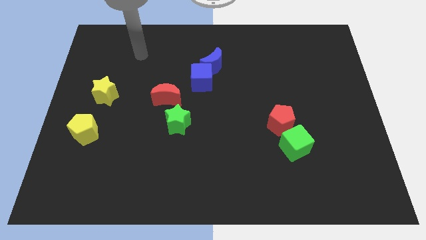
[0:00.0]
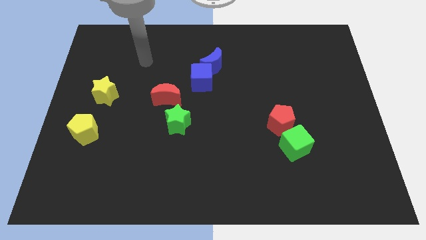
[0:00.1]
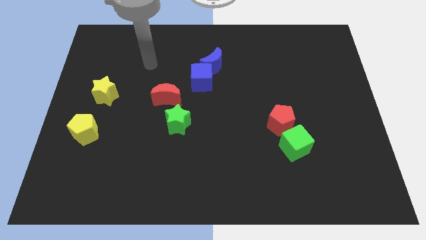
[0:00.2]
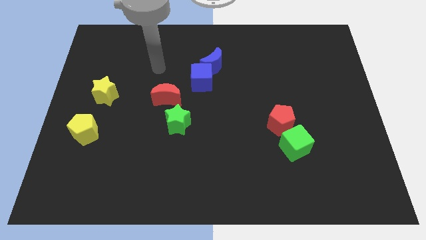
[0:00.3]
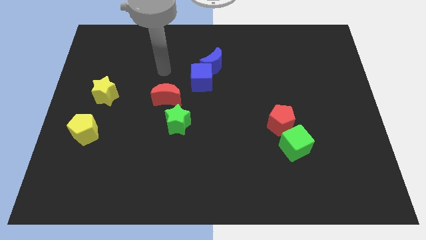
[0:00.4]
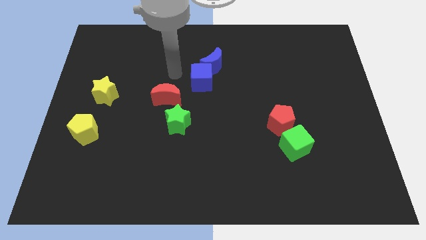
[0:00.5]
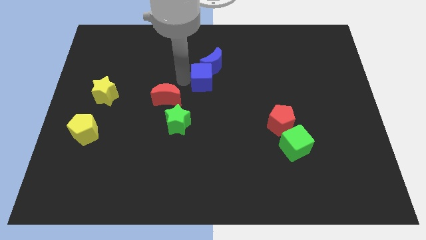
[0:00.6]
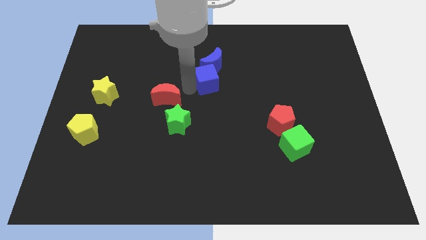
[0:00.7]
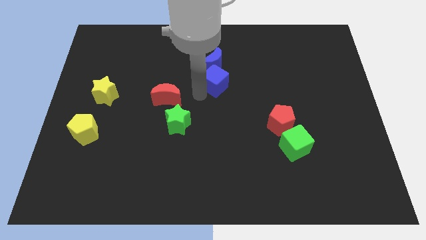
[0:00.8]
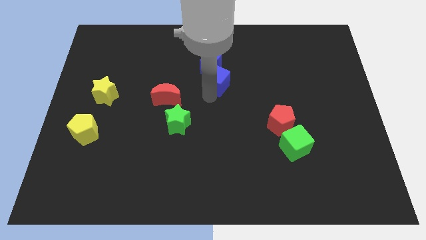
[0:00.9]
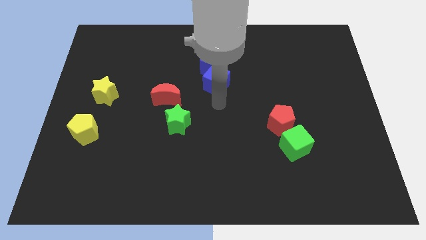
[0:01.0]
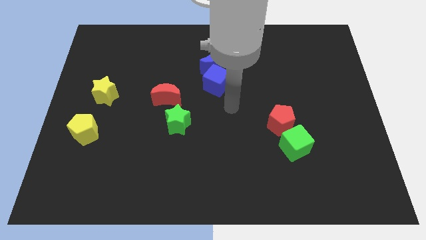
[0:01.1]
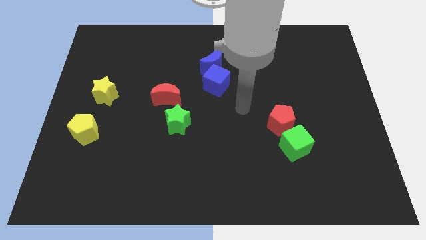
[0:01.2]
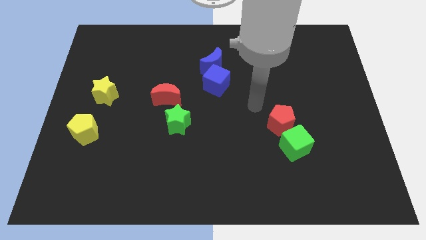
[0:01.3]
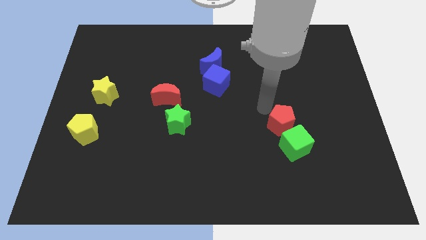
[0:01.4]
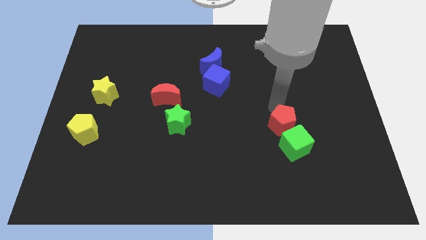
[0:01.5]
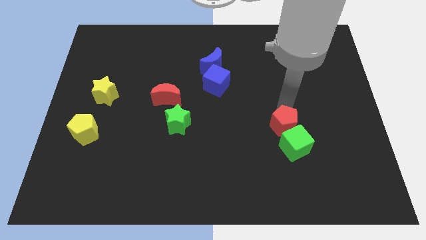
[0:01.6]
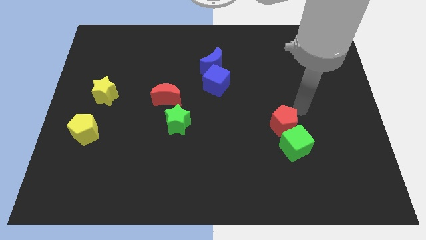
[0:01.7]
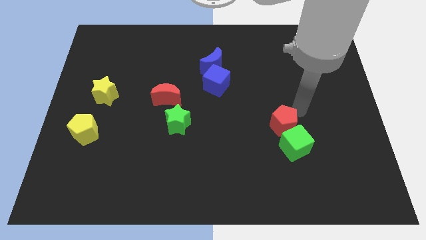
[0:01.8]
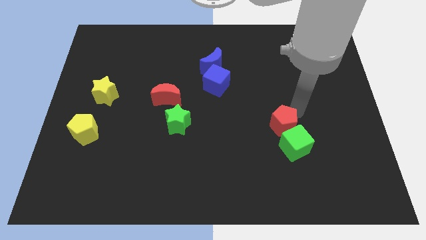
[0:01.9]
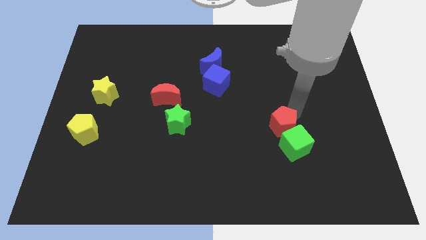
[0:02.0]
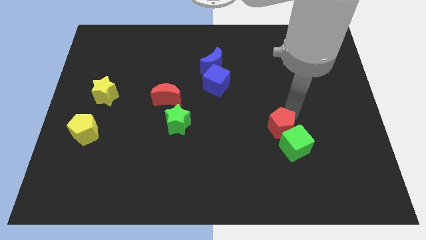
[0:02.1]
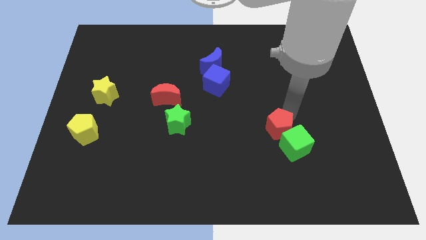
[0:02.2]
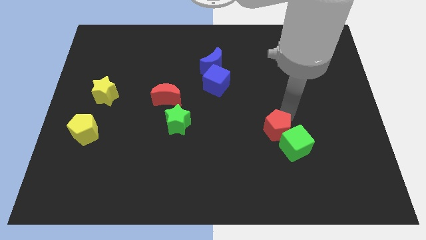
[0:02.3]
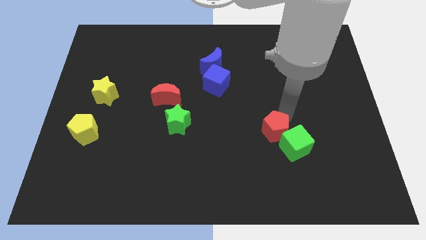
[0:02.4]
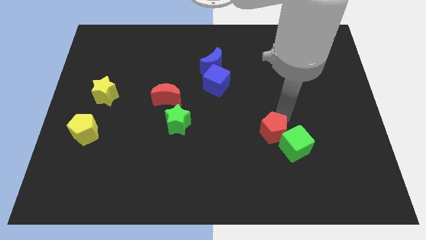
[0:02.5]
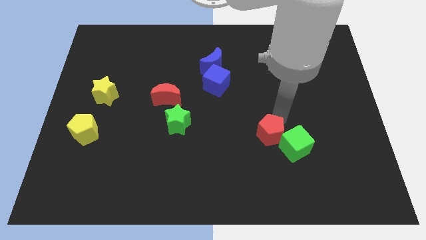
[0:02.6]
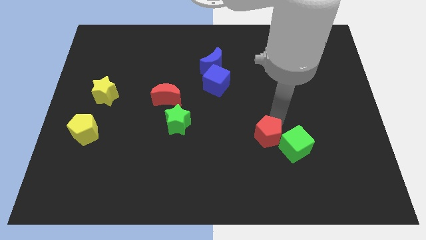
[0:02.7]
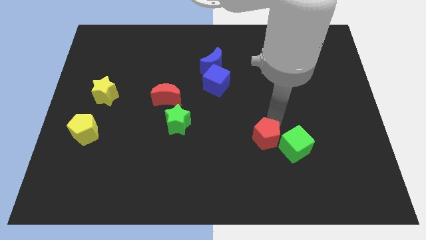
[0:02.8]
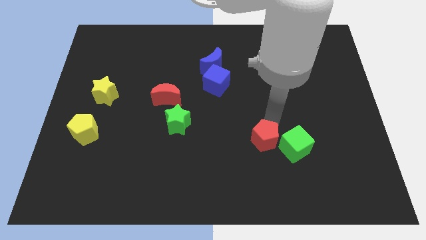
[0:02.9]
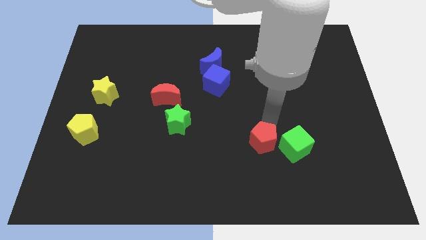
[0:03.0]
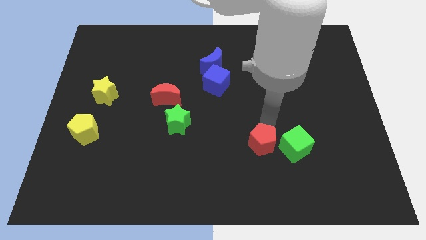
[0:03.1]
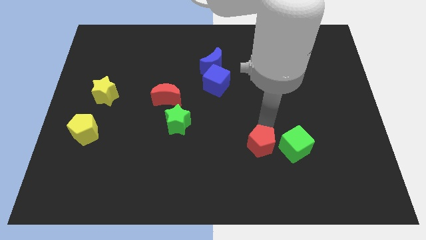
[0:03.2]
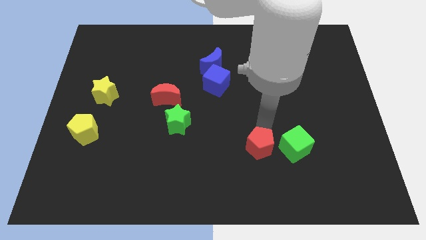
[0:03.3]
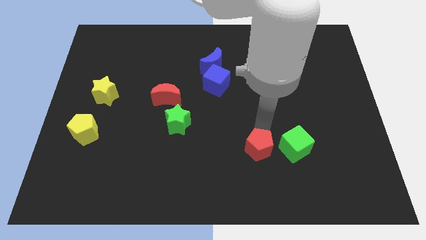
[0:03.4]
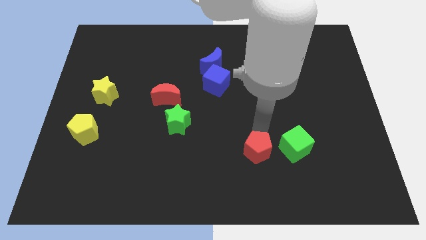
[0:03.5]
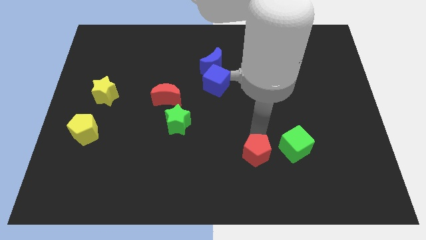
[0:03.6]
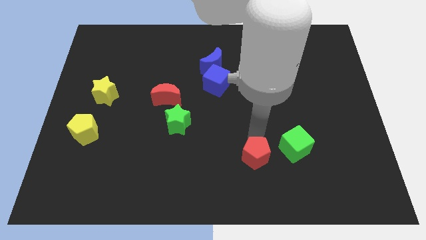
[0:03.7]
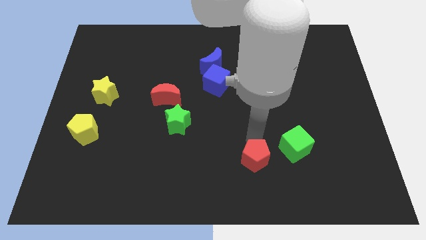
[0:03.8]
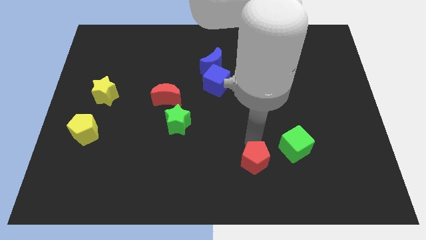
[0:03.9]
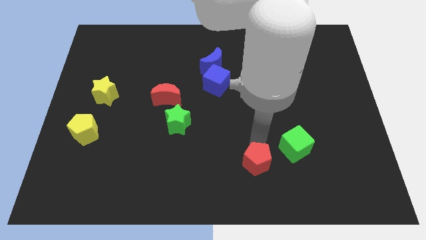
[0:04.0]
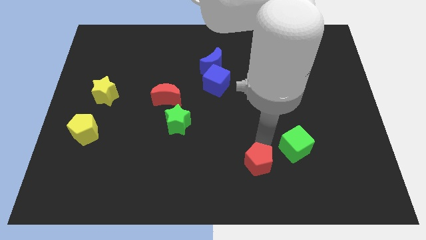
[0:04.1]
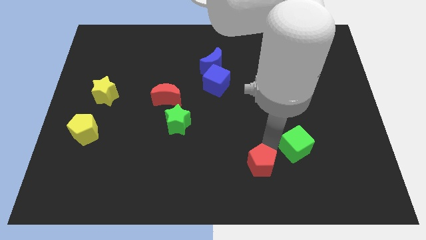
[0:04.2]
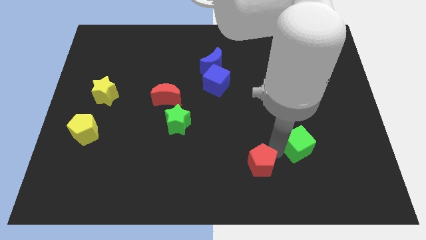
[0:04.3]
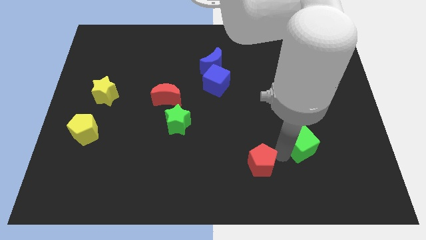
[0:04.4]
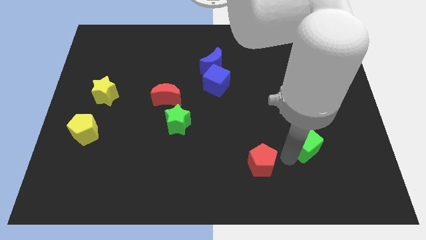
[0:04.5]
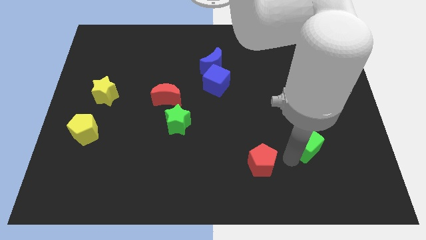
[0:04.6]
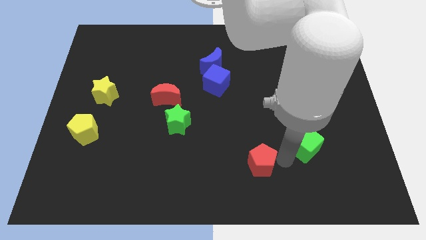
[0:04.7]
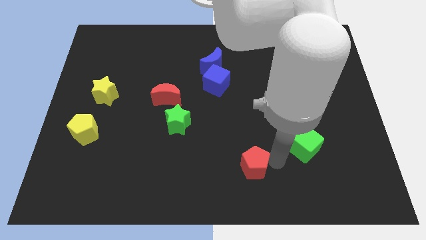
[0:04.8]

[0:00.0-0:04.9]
put the red pentagon to the bottom

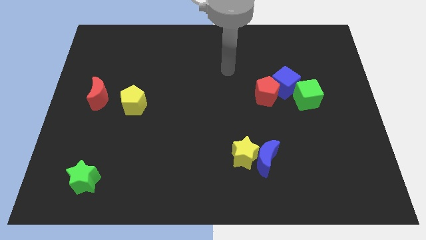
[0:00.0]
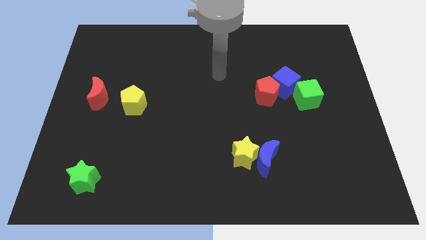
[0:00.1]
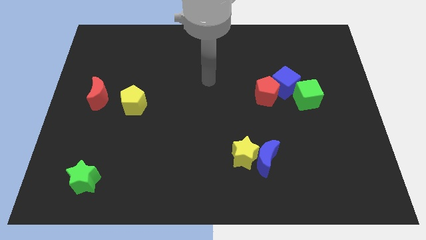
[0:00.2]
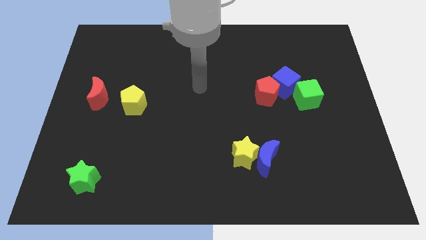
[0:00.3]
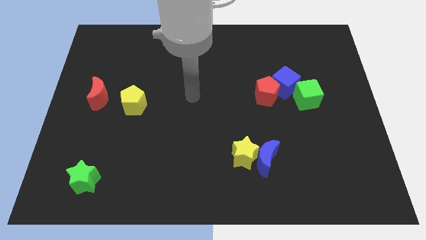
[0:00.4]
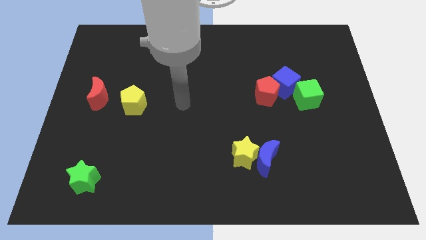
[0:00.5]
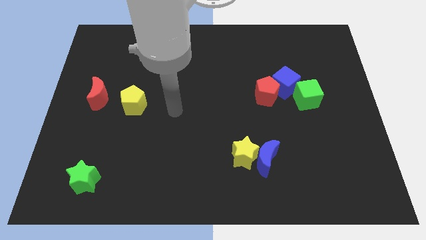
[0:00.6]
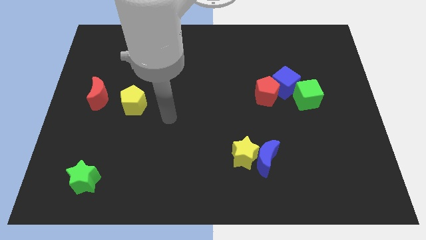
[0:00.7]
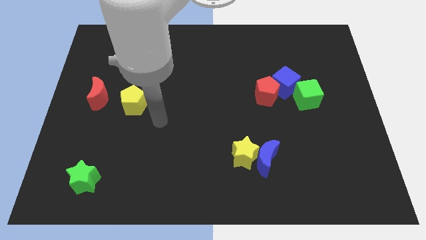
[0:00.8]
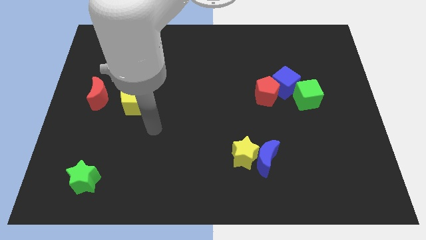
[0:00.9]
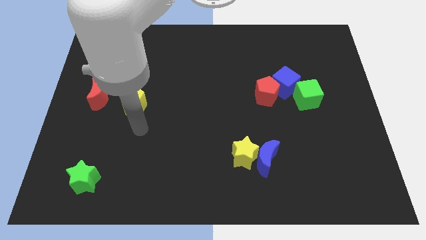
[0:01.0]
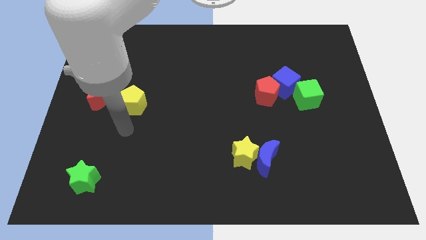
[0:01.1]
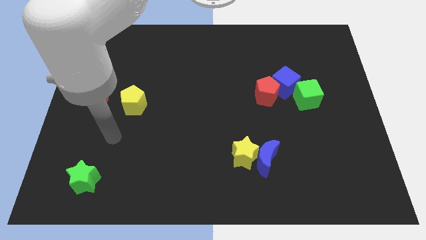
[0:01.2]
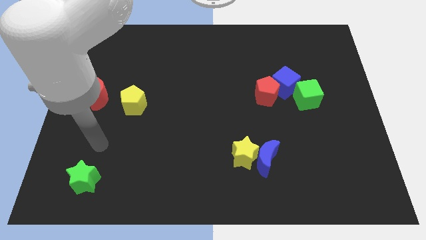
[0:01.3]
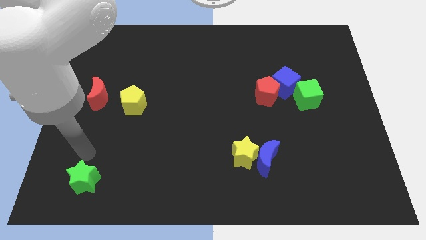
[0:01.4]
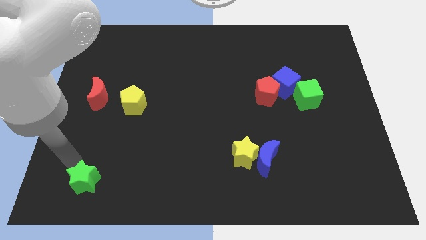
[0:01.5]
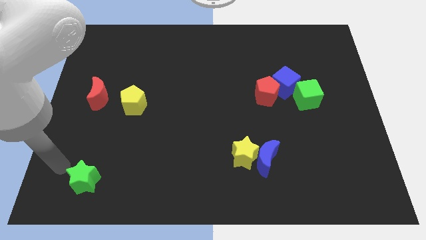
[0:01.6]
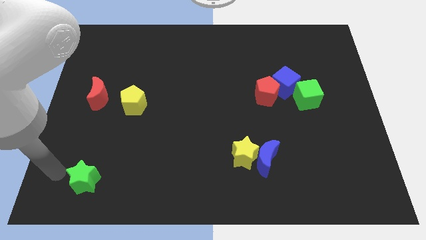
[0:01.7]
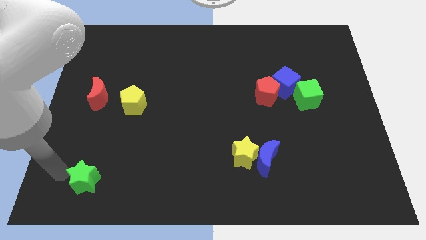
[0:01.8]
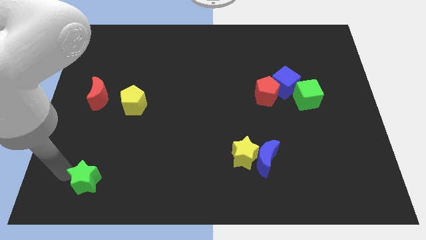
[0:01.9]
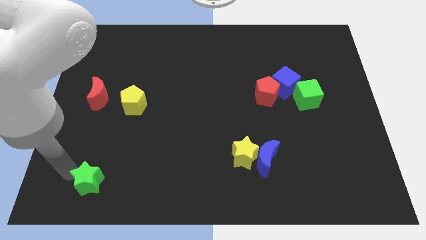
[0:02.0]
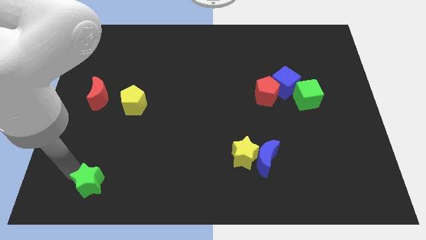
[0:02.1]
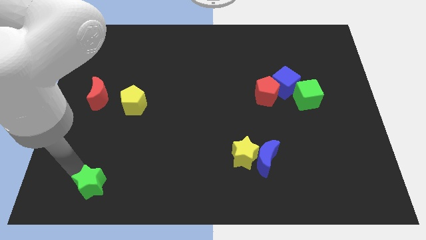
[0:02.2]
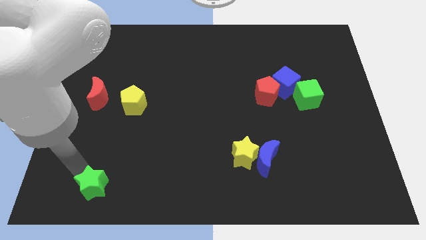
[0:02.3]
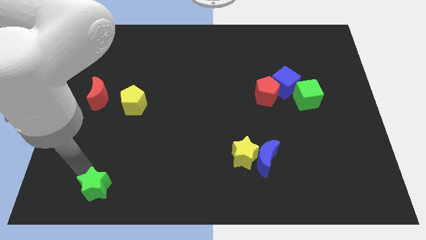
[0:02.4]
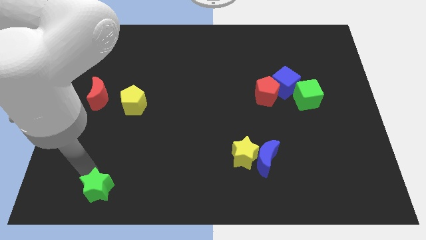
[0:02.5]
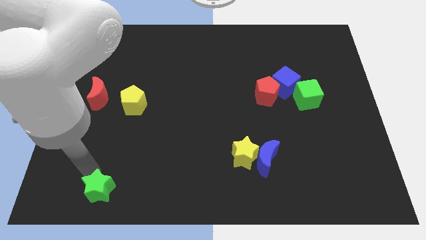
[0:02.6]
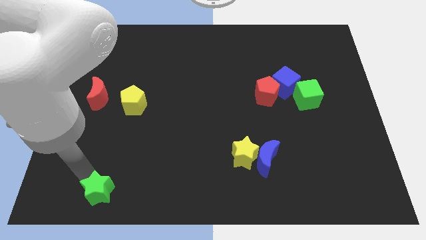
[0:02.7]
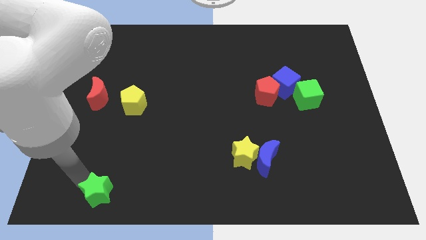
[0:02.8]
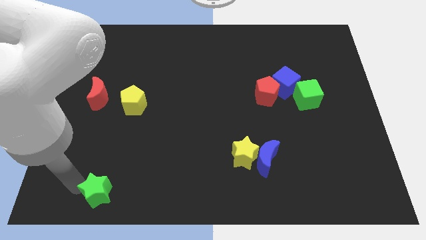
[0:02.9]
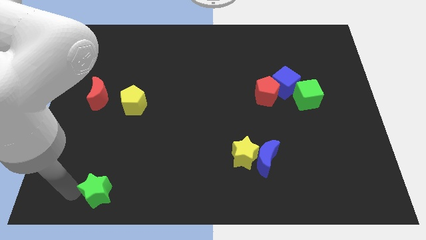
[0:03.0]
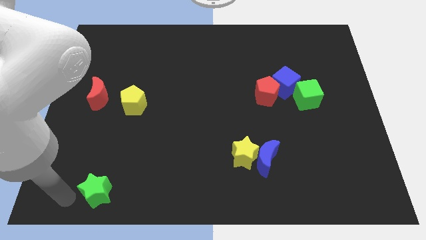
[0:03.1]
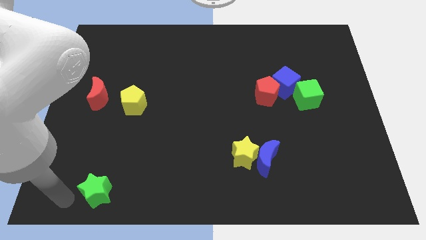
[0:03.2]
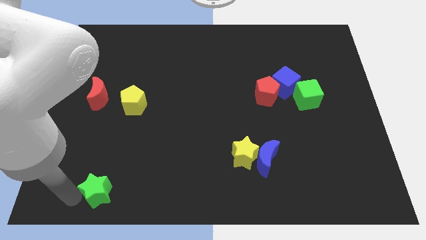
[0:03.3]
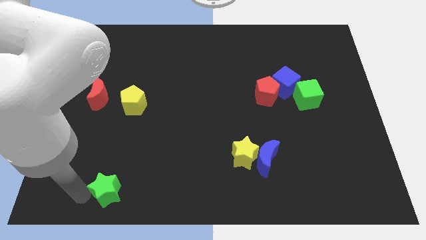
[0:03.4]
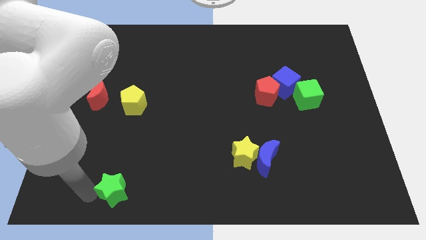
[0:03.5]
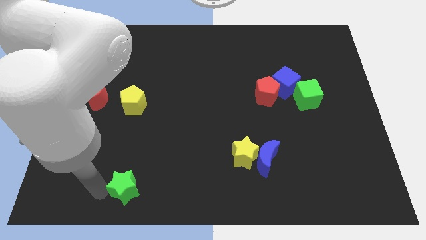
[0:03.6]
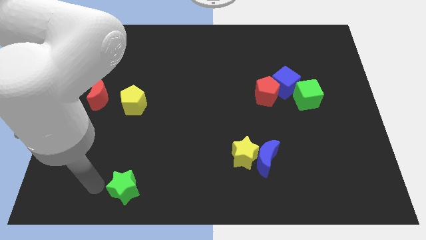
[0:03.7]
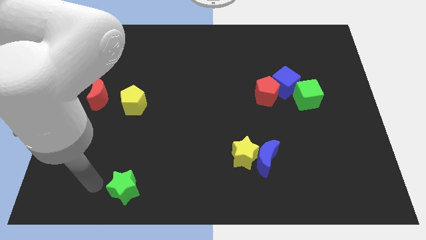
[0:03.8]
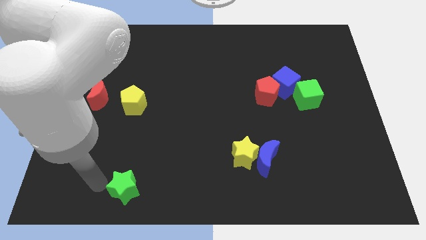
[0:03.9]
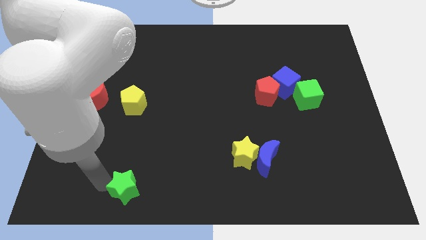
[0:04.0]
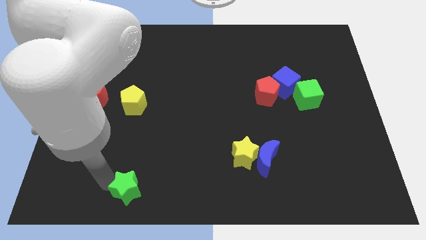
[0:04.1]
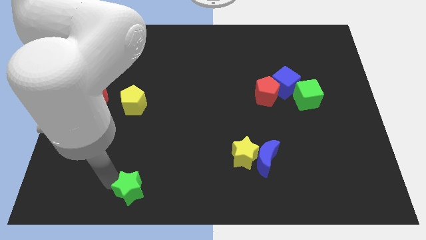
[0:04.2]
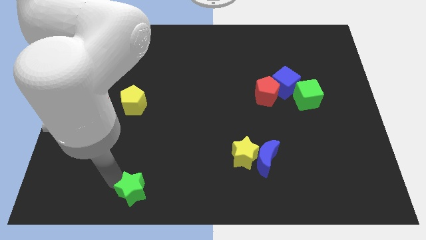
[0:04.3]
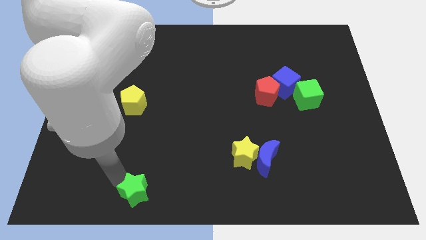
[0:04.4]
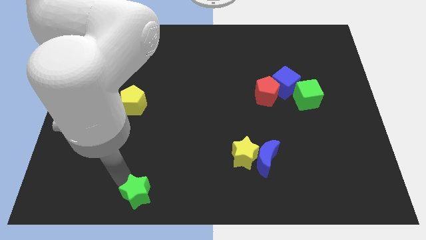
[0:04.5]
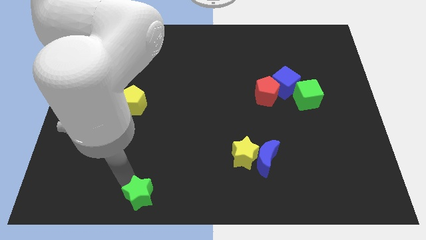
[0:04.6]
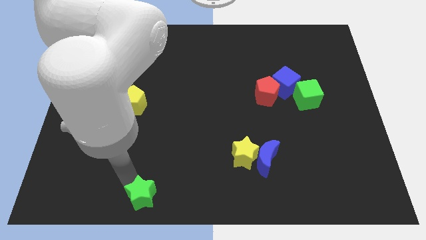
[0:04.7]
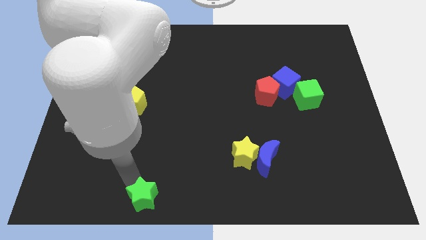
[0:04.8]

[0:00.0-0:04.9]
move the green star to the bottom side
